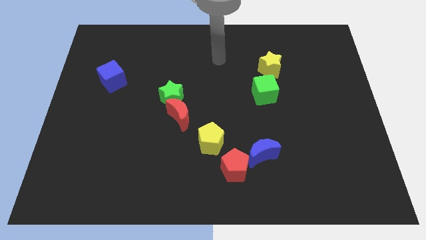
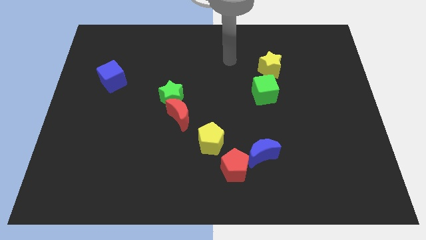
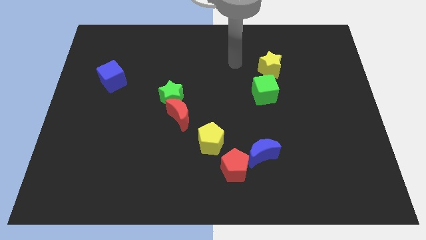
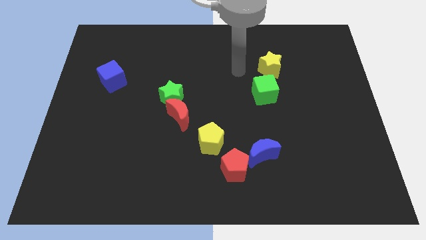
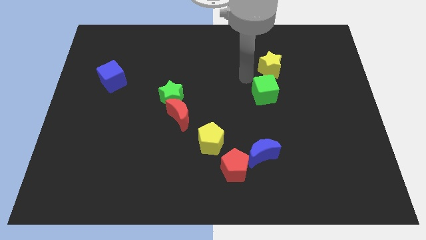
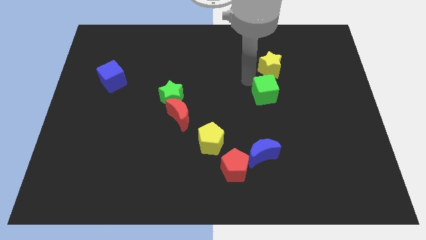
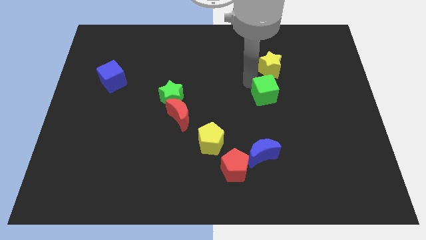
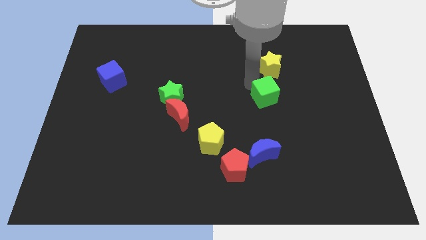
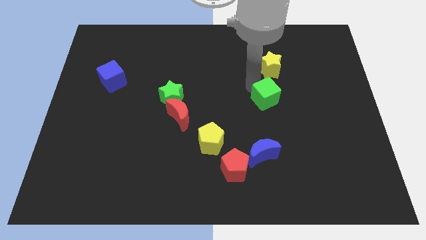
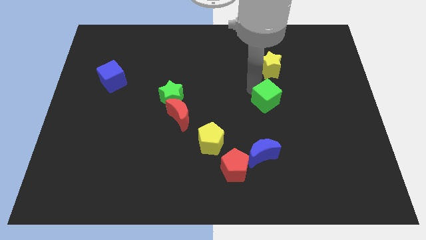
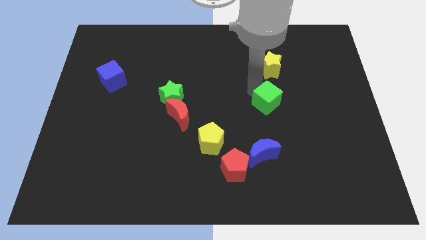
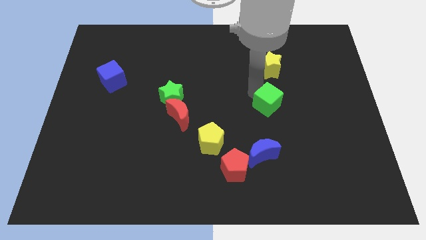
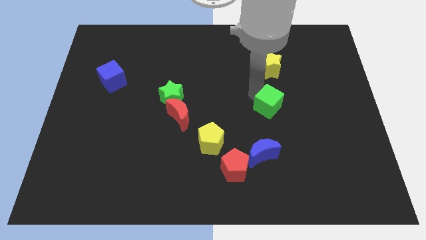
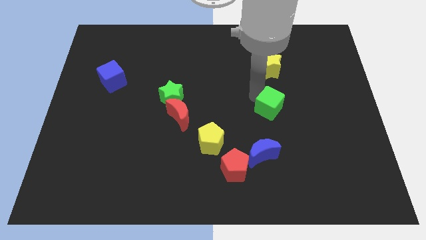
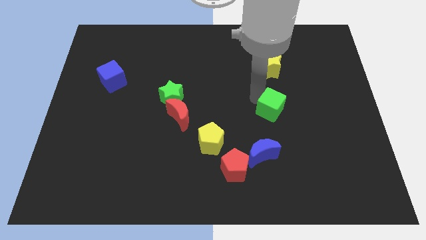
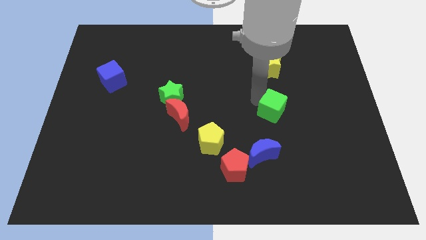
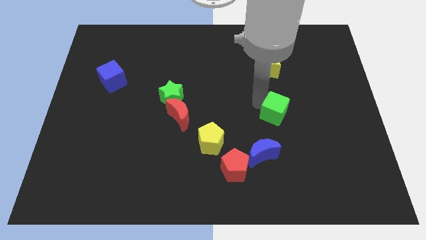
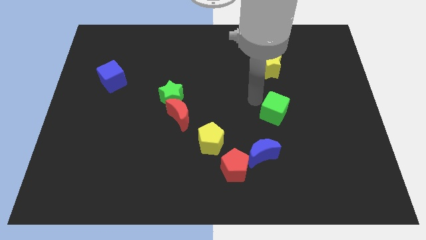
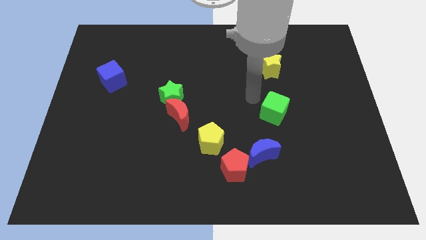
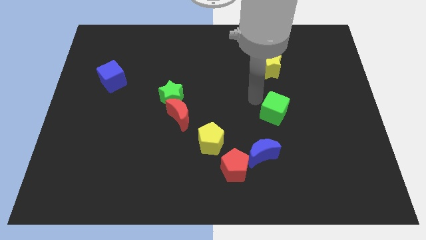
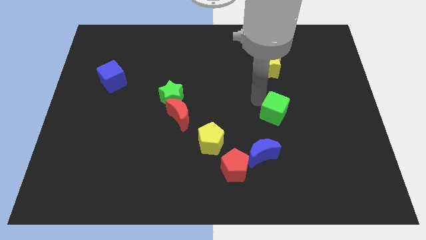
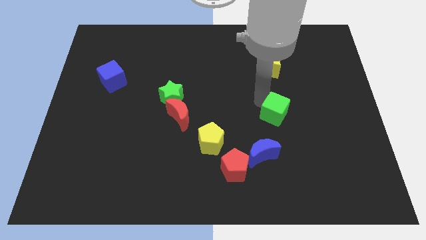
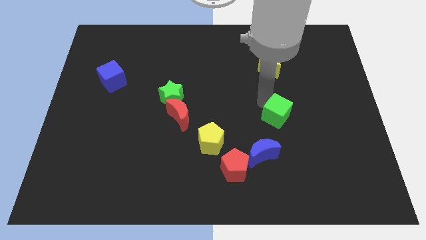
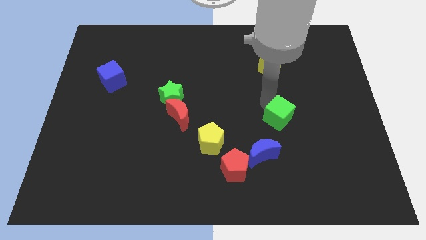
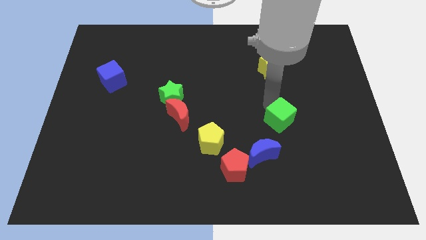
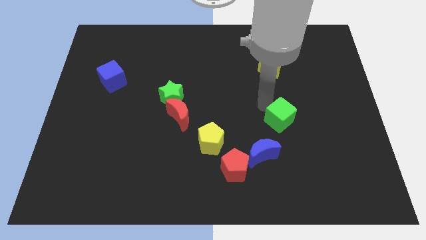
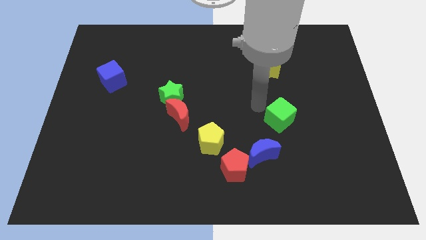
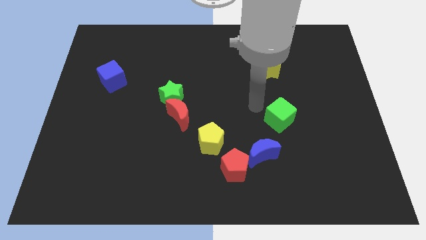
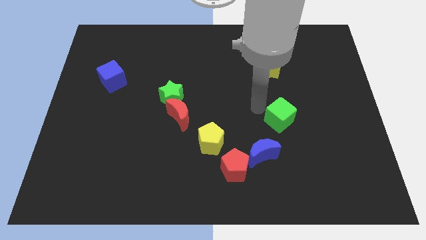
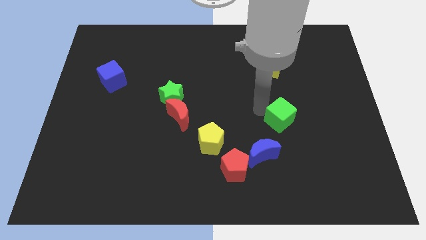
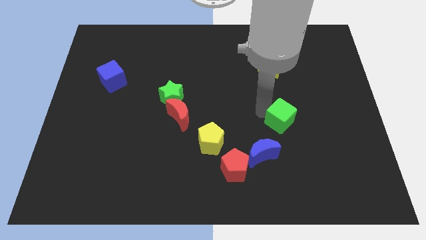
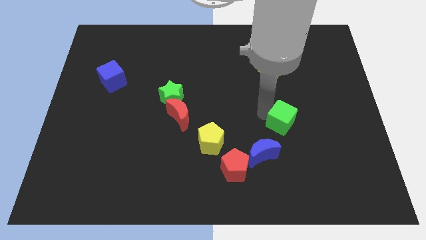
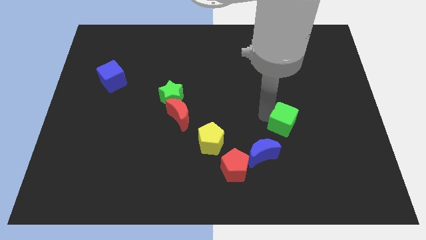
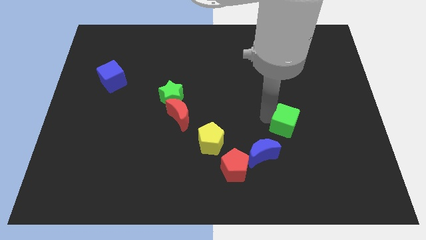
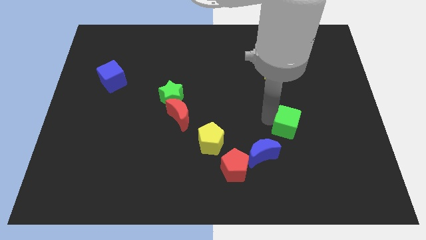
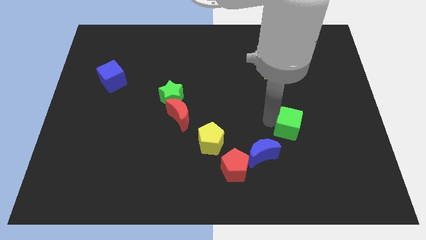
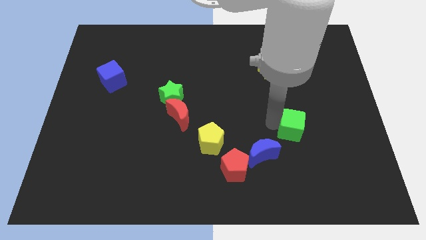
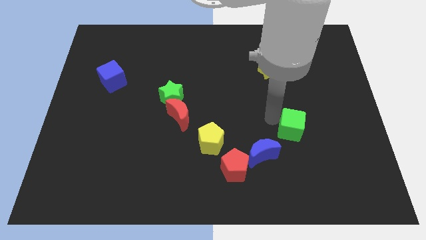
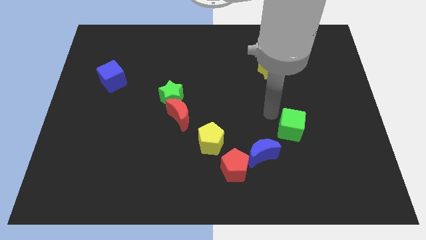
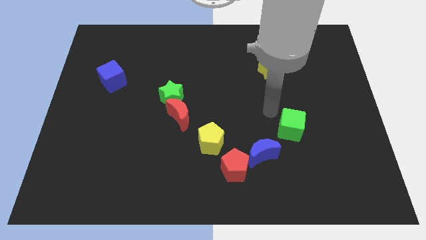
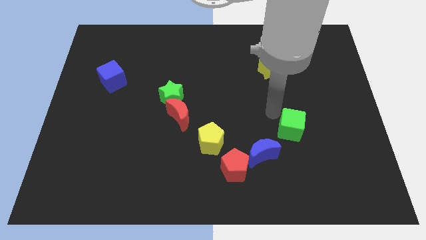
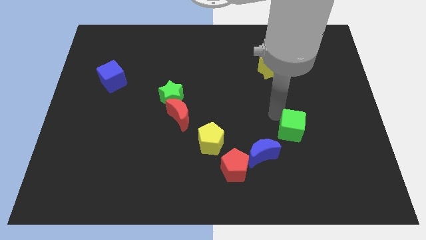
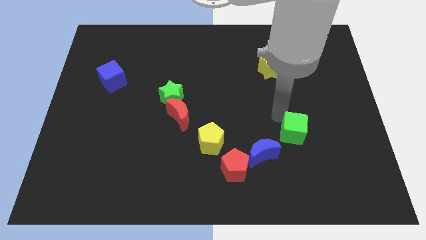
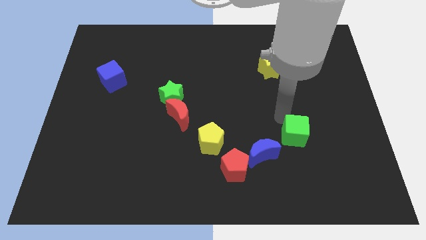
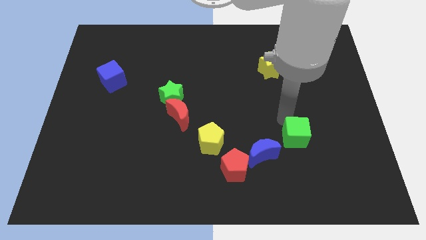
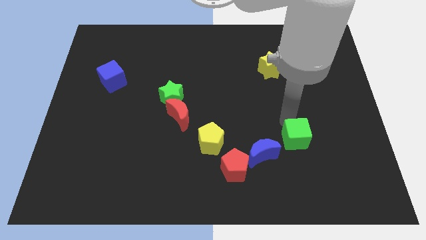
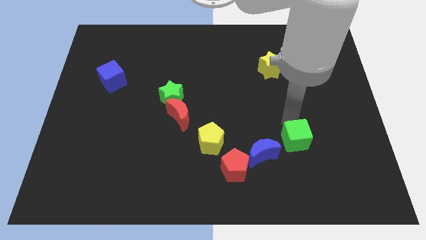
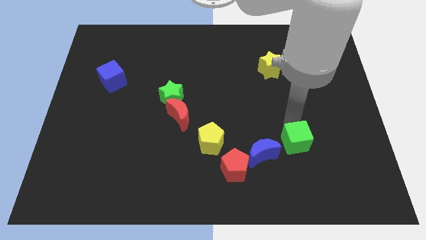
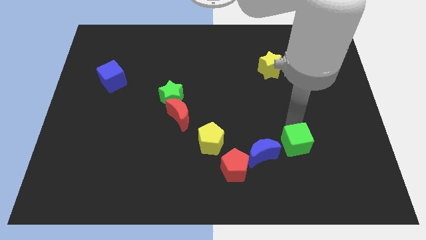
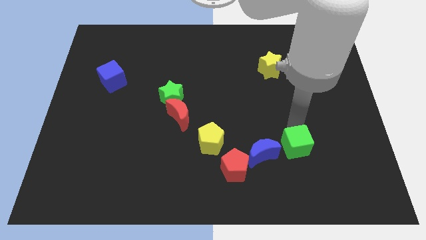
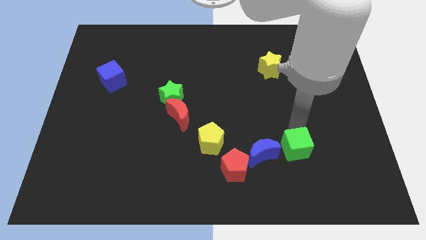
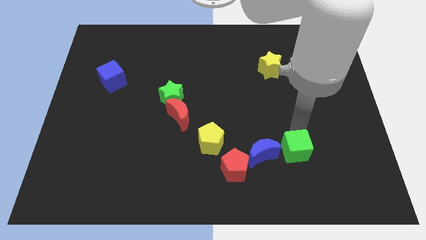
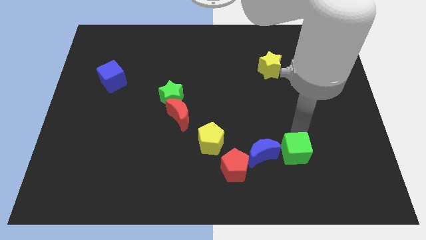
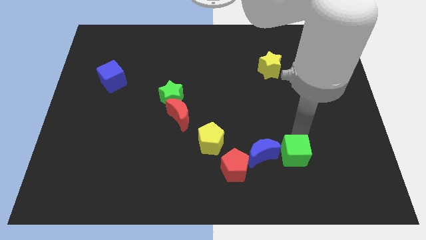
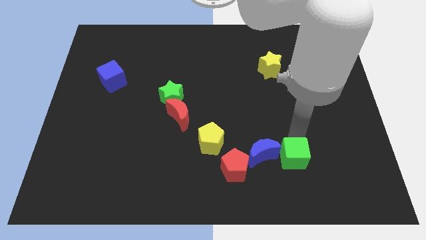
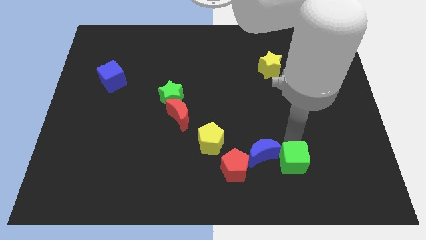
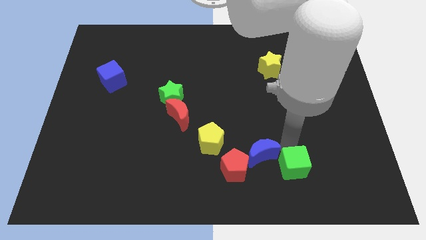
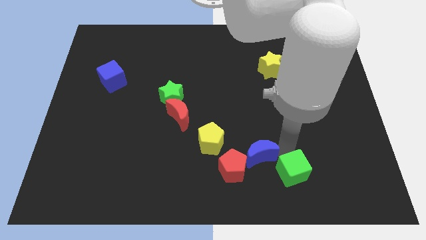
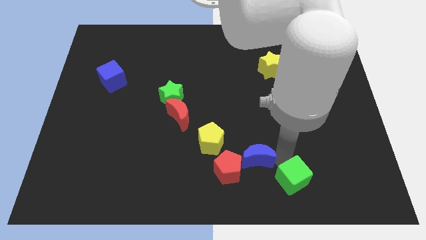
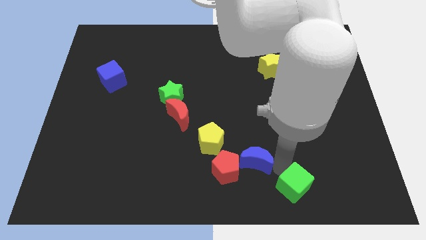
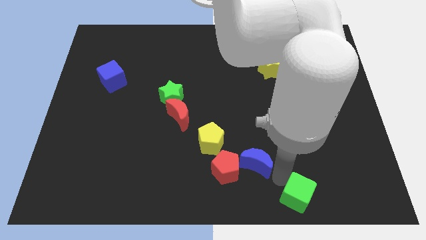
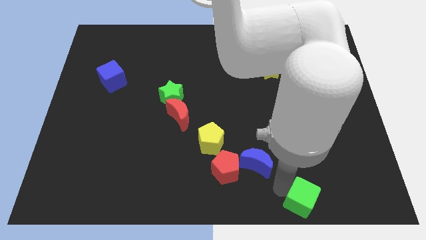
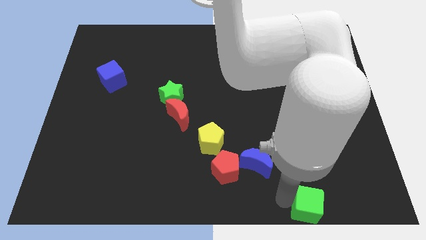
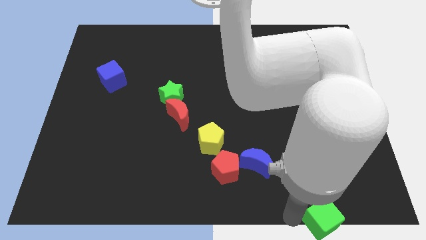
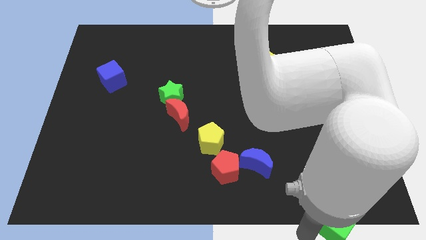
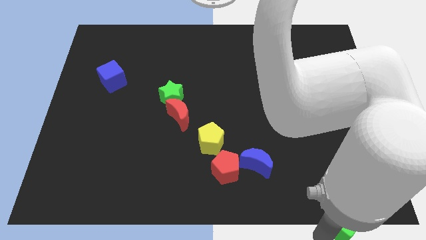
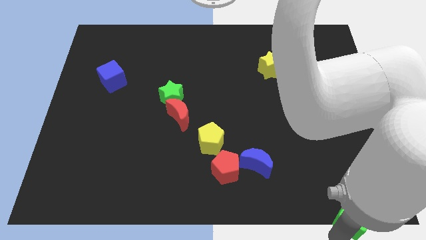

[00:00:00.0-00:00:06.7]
move the green cube to the bottom right
